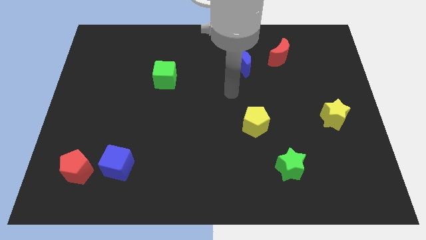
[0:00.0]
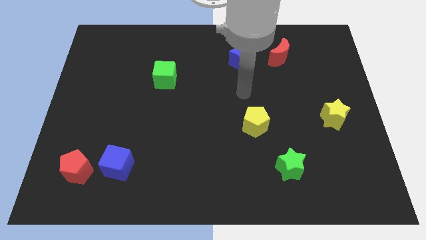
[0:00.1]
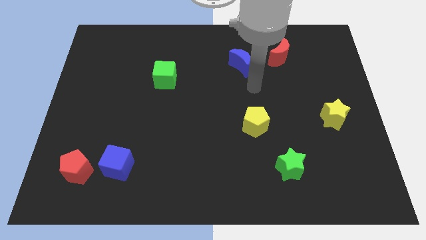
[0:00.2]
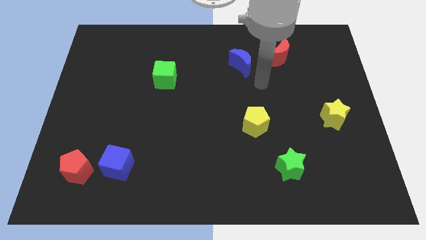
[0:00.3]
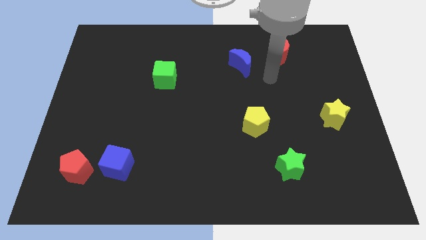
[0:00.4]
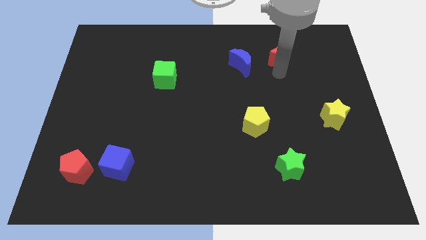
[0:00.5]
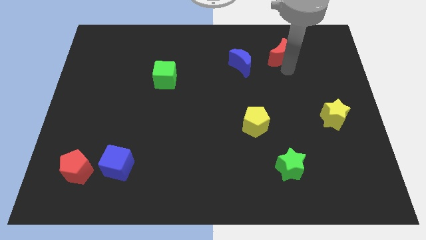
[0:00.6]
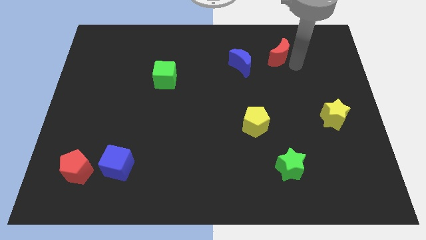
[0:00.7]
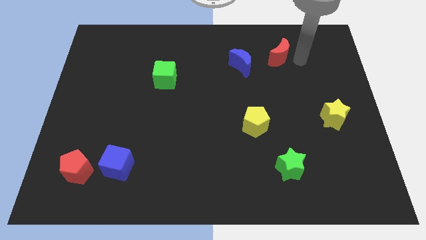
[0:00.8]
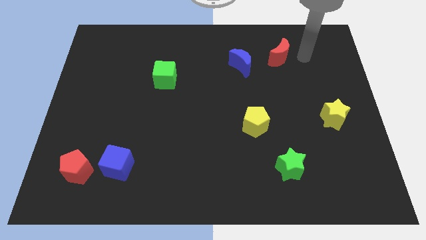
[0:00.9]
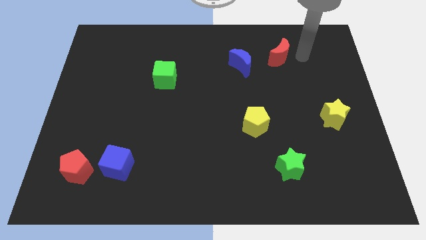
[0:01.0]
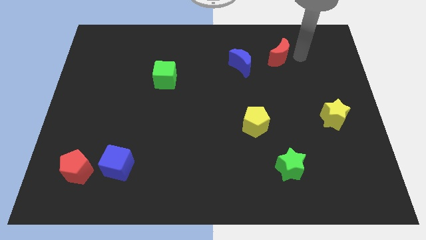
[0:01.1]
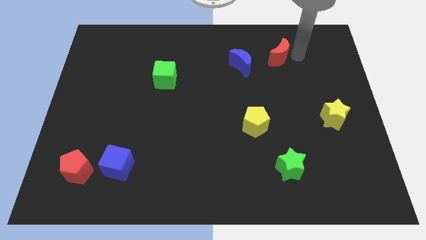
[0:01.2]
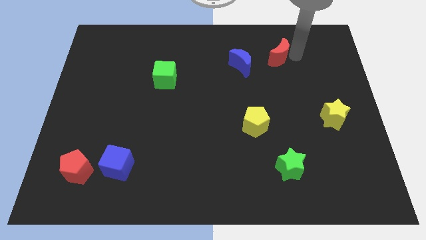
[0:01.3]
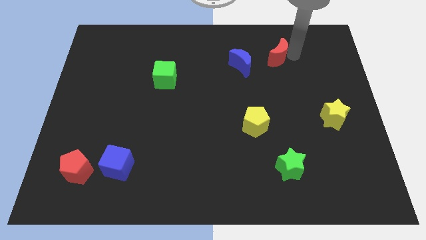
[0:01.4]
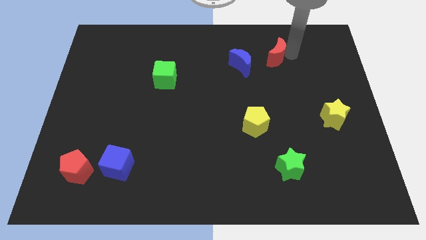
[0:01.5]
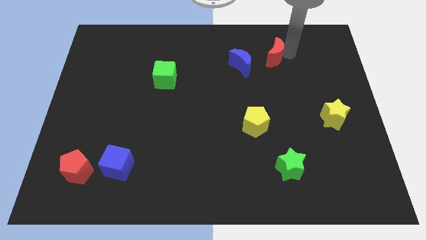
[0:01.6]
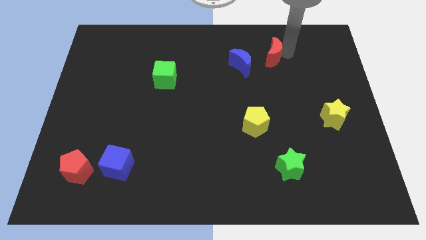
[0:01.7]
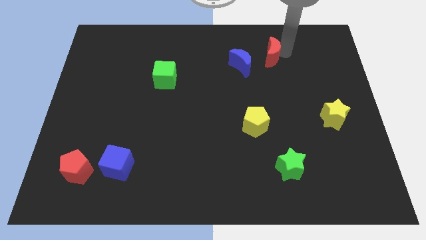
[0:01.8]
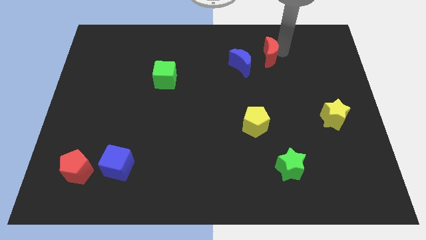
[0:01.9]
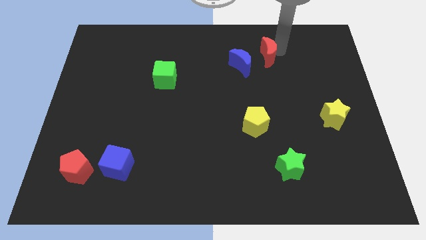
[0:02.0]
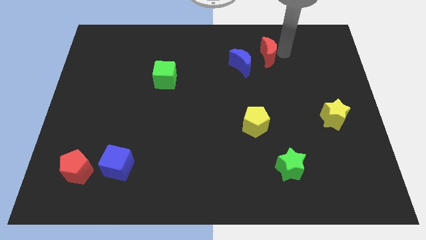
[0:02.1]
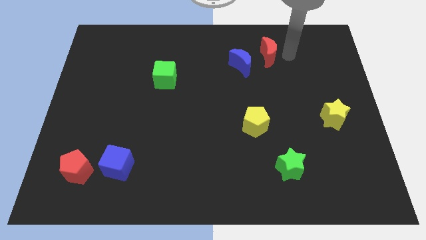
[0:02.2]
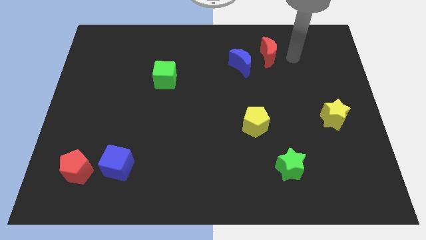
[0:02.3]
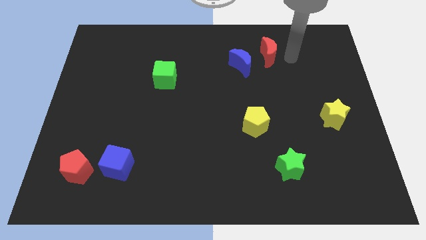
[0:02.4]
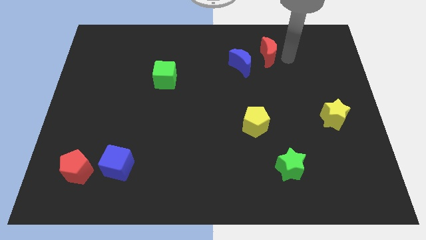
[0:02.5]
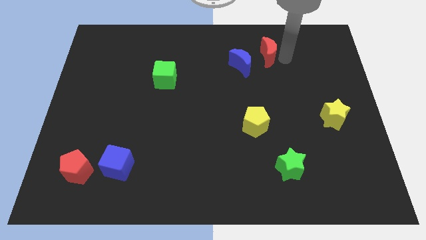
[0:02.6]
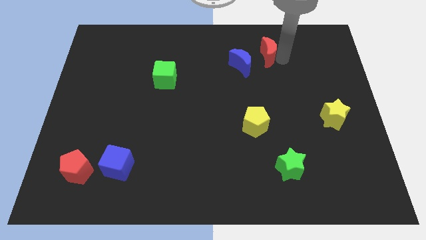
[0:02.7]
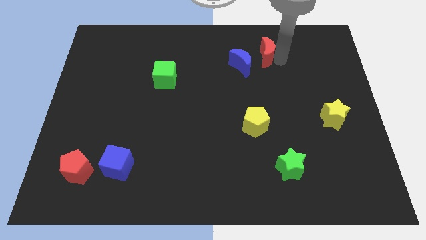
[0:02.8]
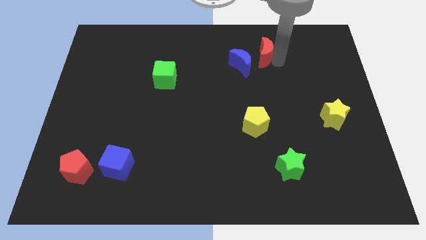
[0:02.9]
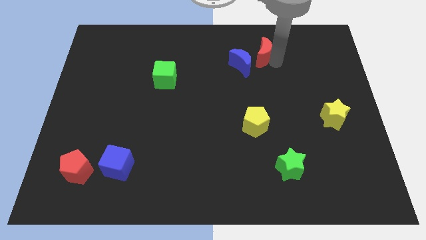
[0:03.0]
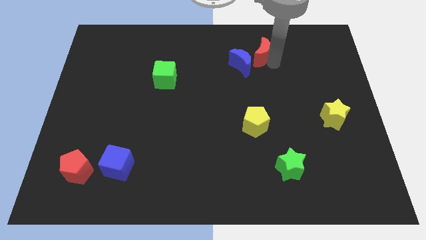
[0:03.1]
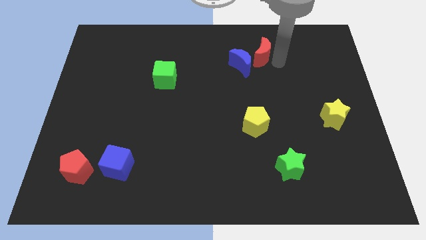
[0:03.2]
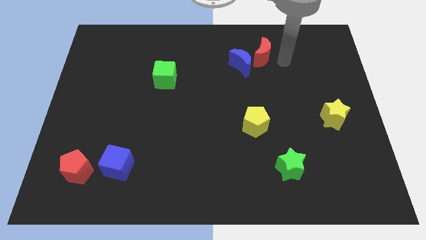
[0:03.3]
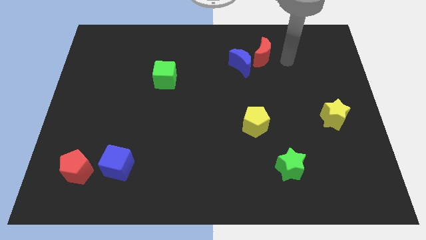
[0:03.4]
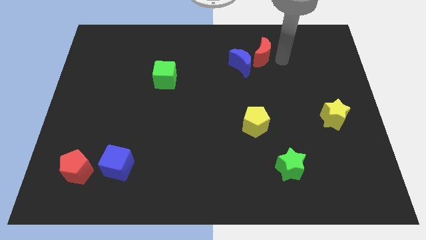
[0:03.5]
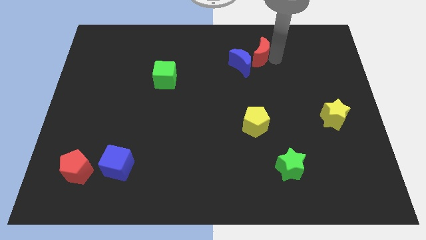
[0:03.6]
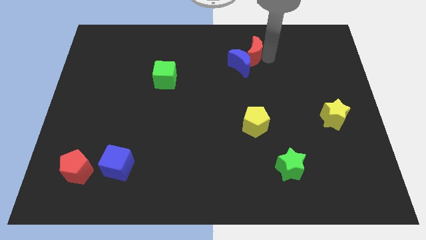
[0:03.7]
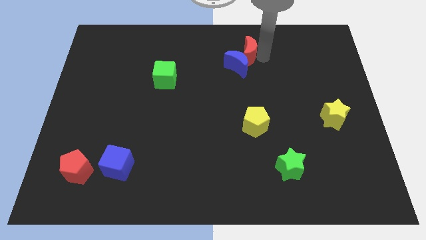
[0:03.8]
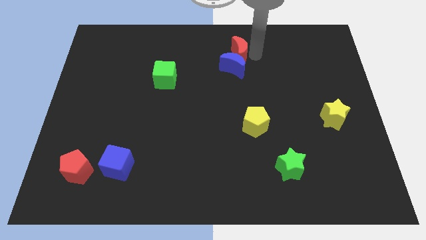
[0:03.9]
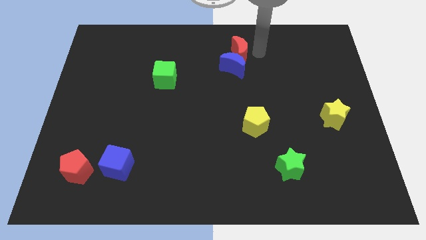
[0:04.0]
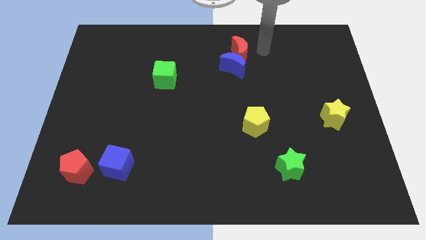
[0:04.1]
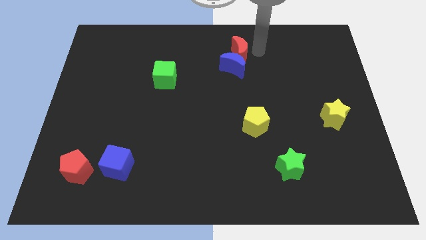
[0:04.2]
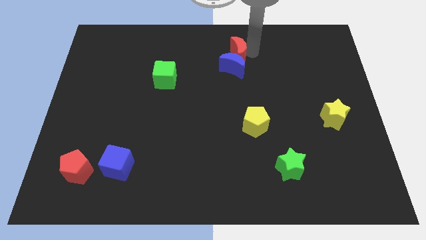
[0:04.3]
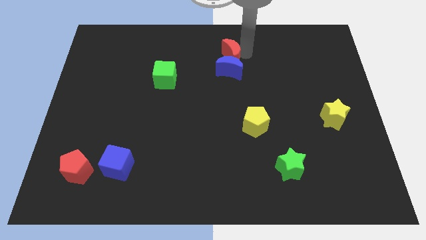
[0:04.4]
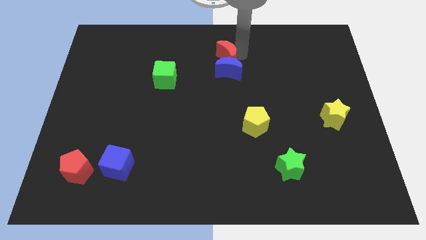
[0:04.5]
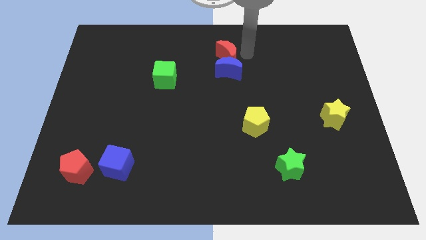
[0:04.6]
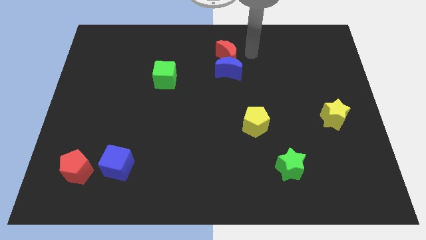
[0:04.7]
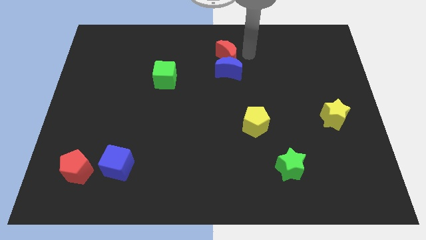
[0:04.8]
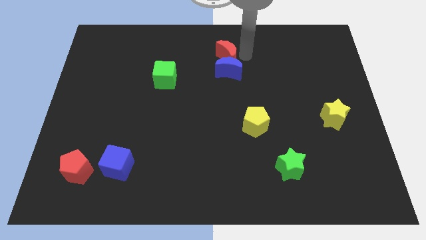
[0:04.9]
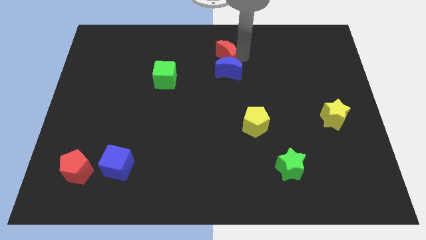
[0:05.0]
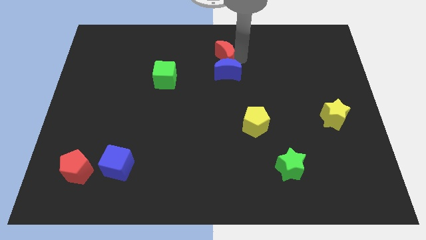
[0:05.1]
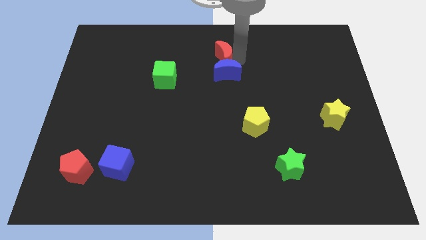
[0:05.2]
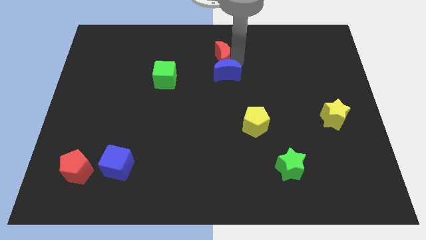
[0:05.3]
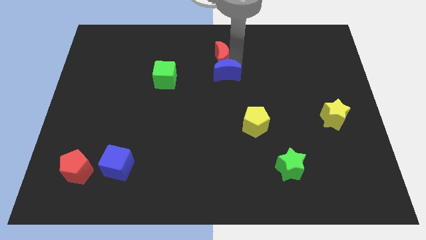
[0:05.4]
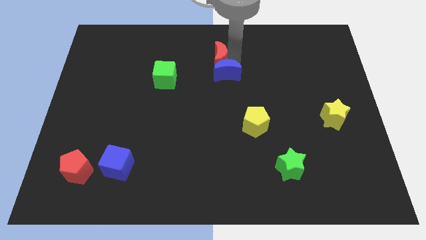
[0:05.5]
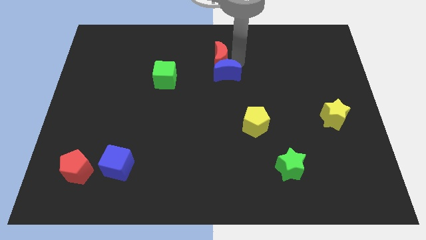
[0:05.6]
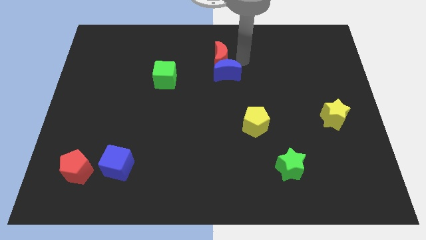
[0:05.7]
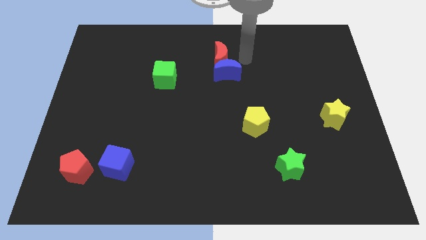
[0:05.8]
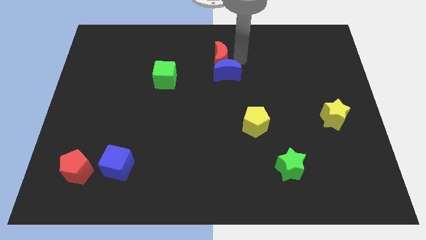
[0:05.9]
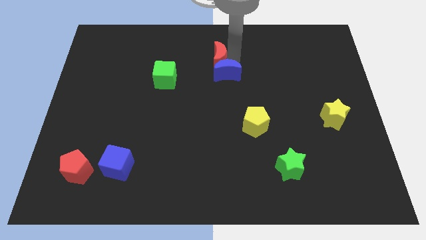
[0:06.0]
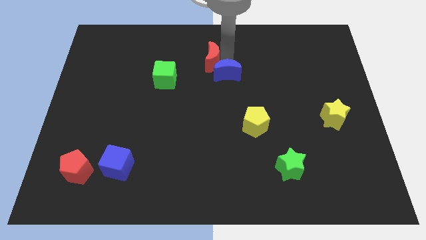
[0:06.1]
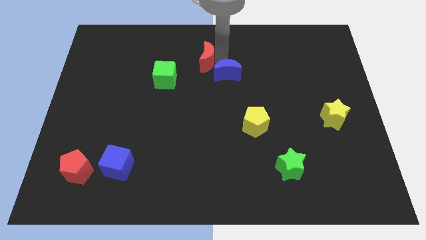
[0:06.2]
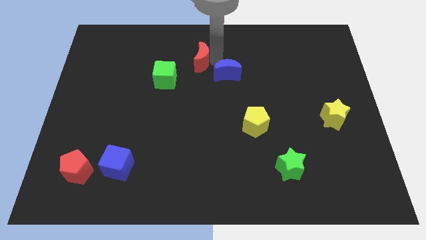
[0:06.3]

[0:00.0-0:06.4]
push the red moon to the left

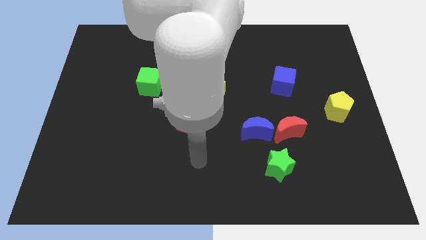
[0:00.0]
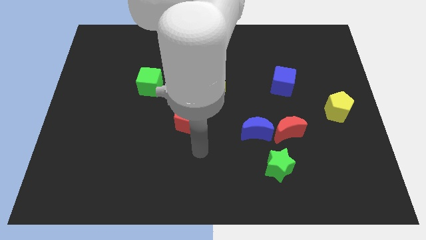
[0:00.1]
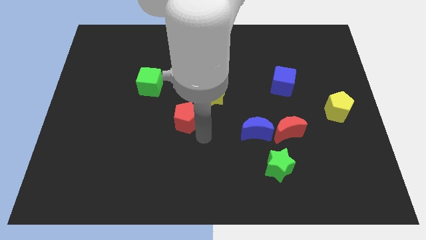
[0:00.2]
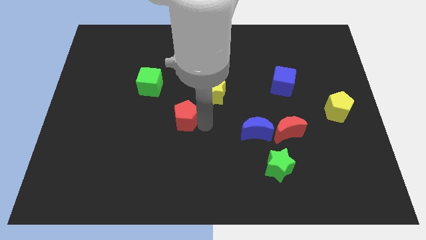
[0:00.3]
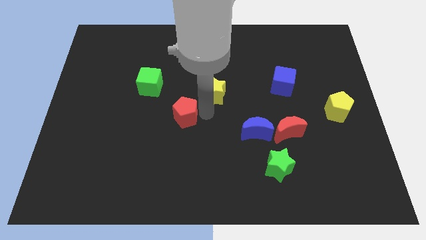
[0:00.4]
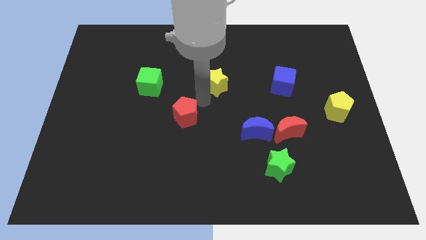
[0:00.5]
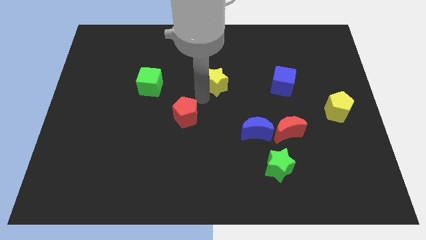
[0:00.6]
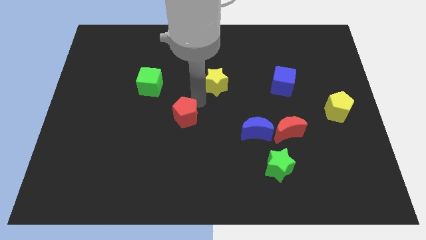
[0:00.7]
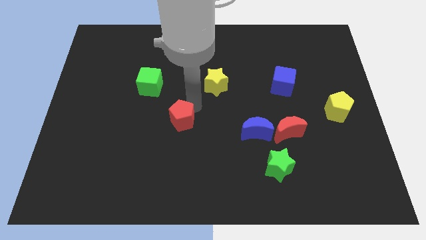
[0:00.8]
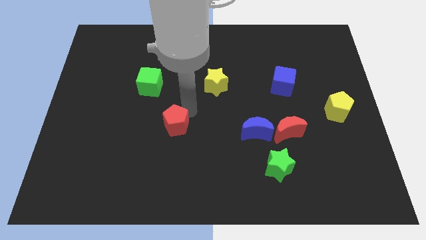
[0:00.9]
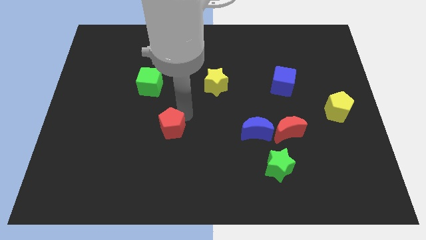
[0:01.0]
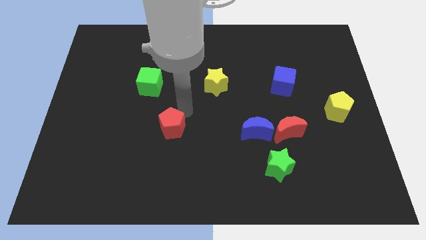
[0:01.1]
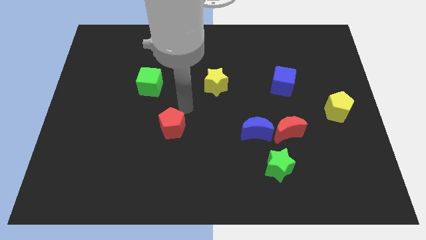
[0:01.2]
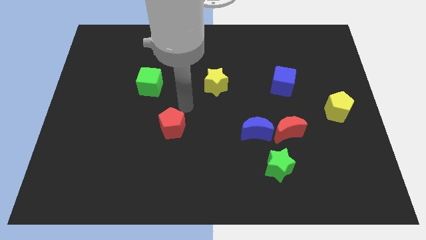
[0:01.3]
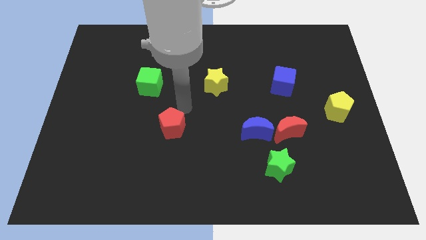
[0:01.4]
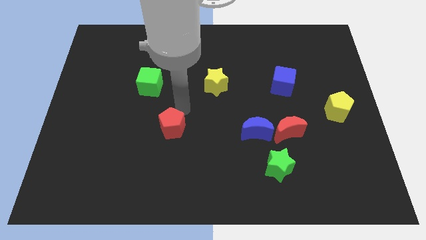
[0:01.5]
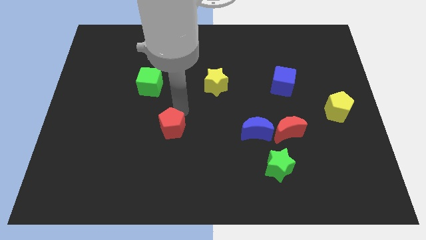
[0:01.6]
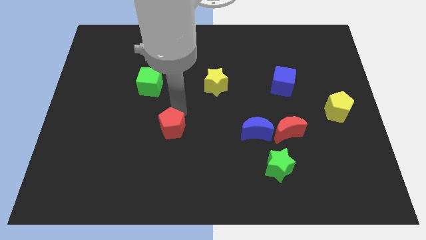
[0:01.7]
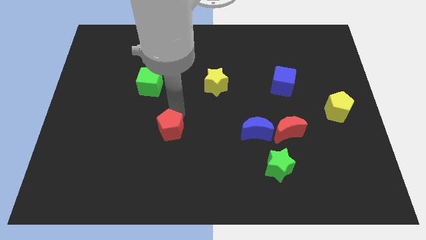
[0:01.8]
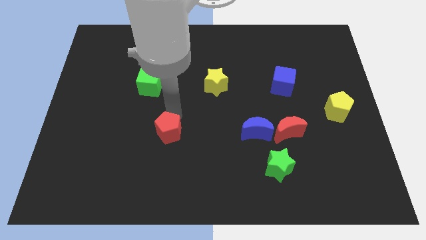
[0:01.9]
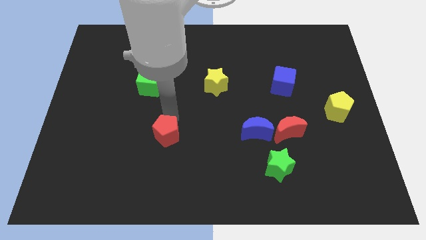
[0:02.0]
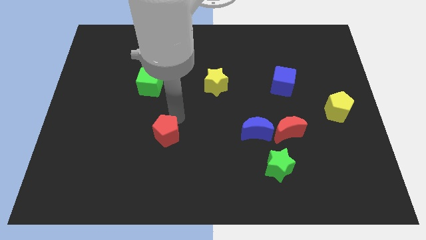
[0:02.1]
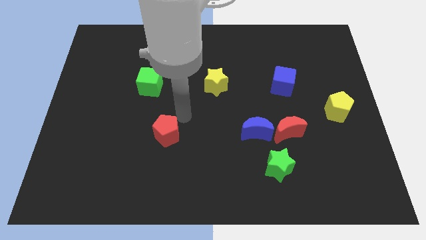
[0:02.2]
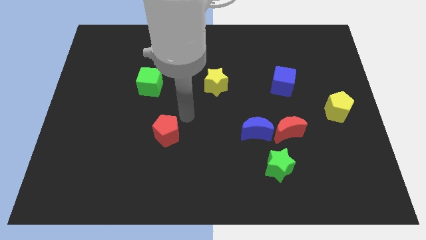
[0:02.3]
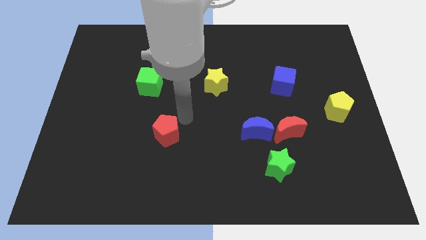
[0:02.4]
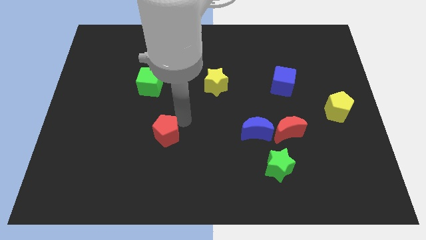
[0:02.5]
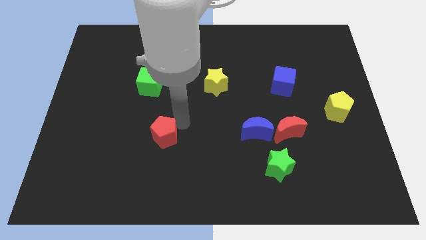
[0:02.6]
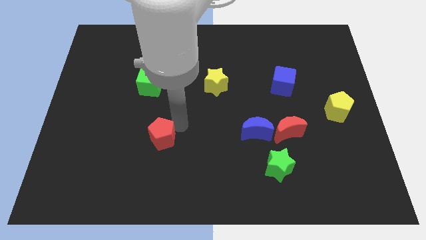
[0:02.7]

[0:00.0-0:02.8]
push the red pentagon down and then to the left a little
